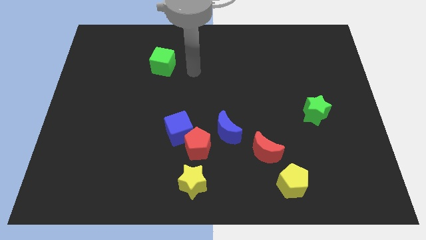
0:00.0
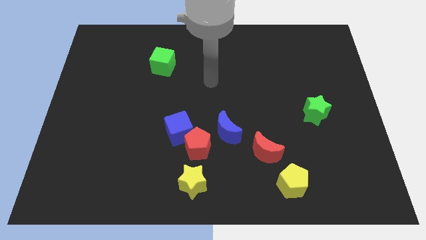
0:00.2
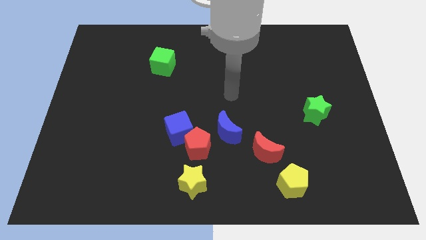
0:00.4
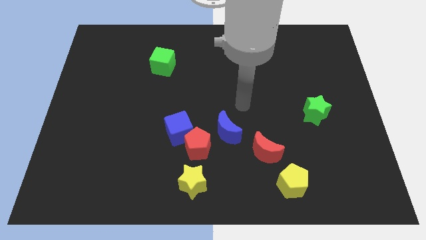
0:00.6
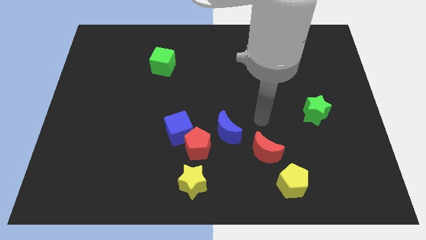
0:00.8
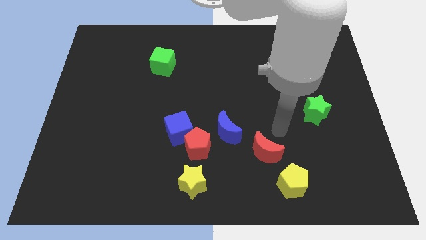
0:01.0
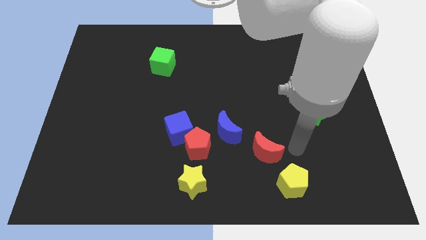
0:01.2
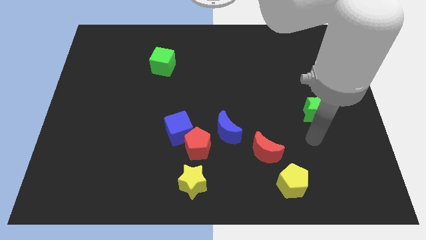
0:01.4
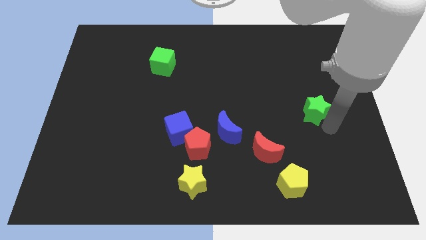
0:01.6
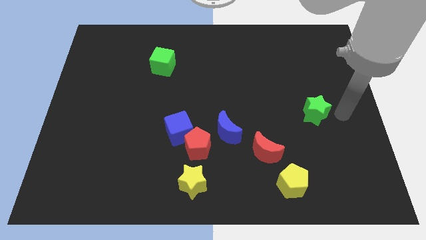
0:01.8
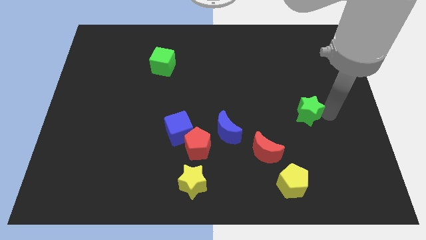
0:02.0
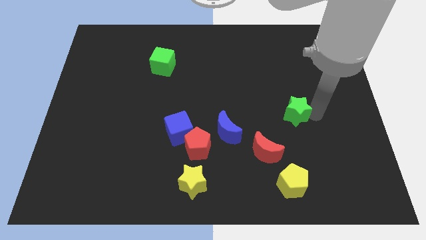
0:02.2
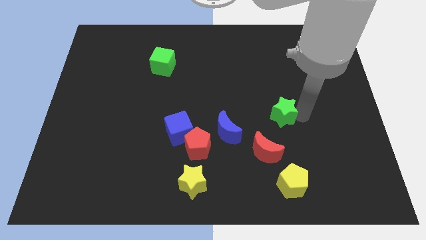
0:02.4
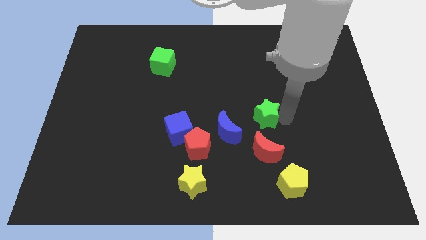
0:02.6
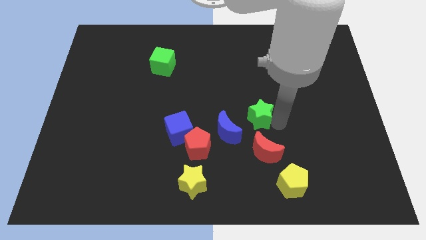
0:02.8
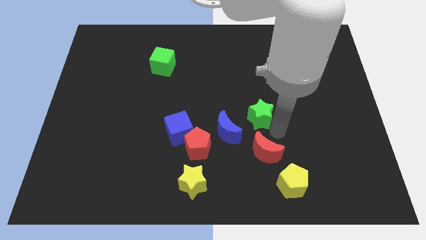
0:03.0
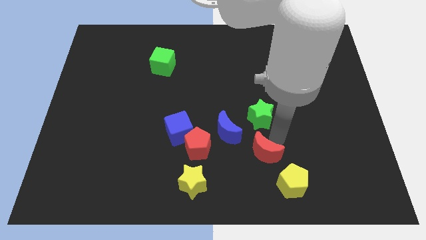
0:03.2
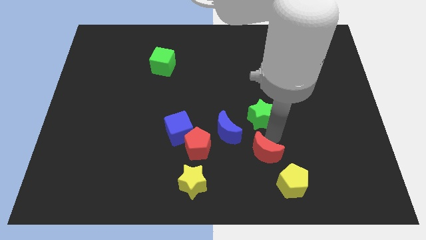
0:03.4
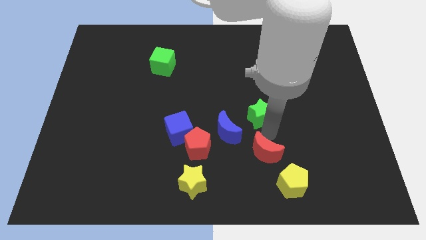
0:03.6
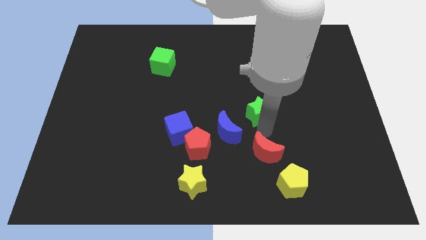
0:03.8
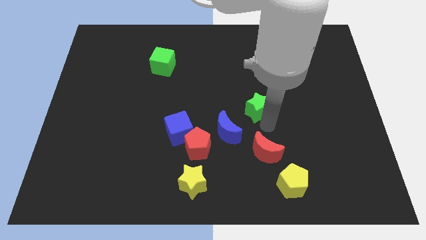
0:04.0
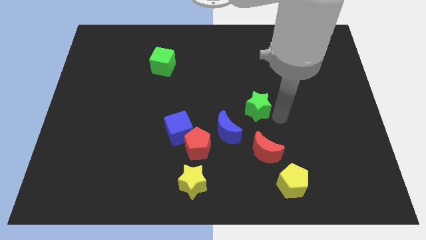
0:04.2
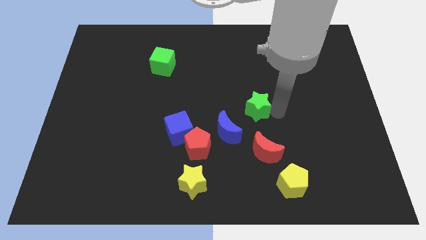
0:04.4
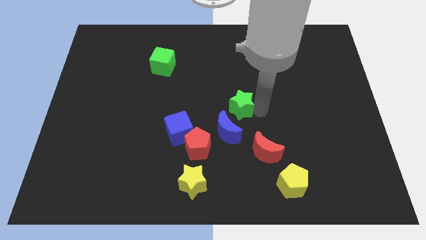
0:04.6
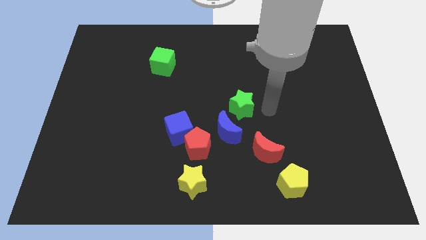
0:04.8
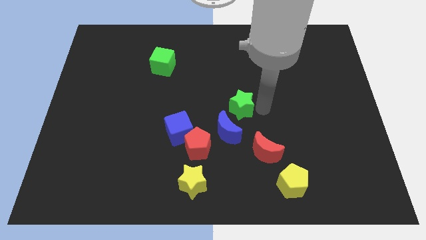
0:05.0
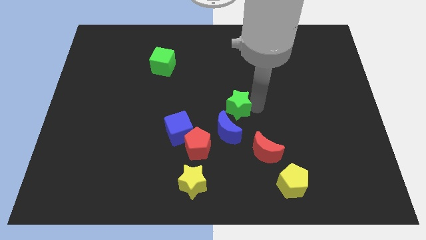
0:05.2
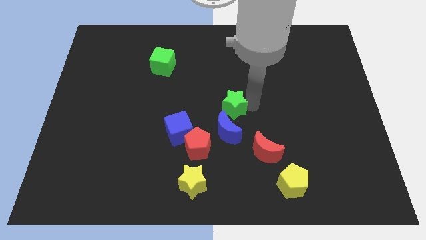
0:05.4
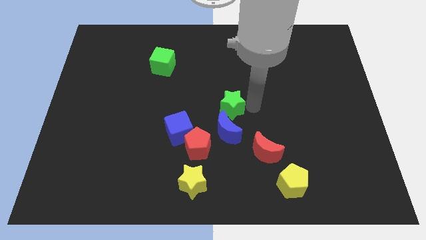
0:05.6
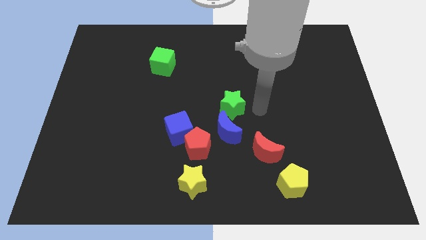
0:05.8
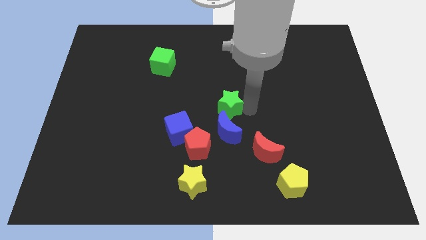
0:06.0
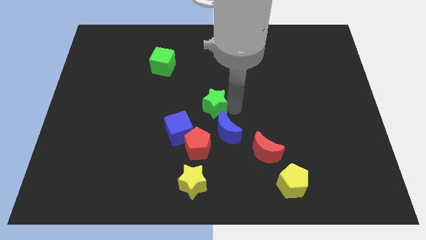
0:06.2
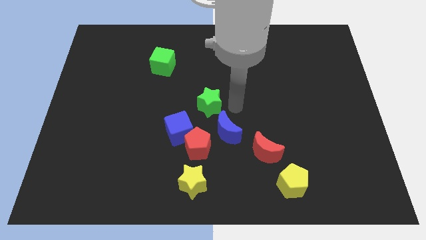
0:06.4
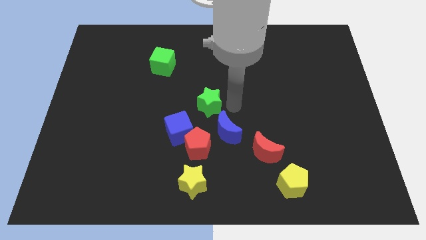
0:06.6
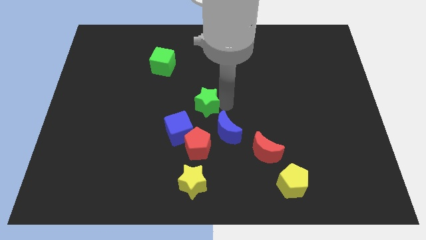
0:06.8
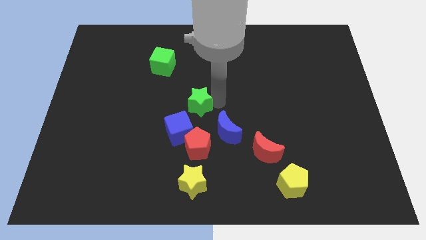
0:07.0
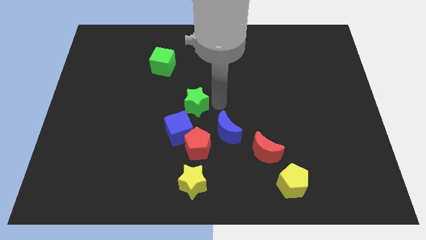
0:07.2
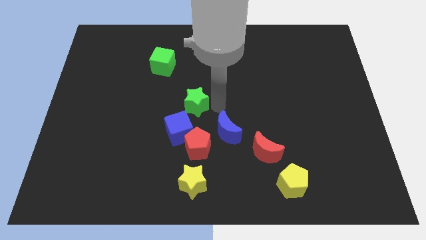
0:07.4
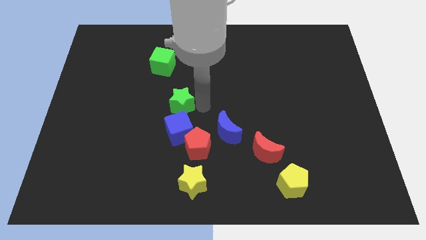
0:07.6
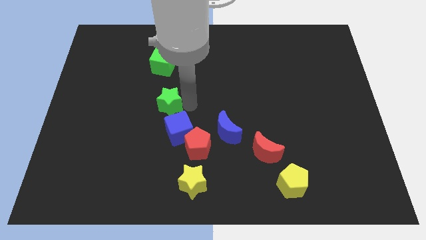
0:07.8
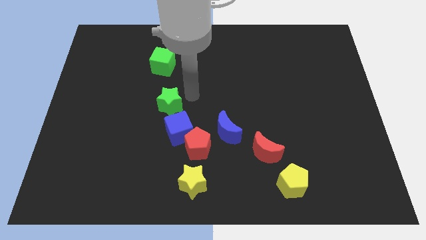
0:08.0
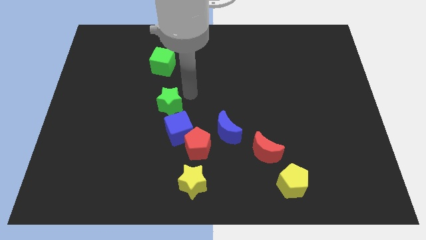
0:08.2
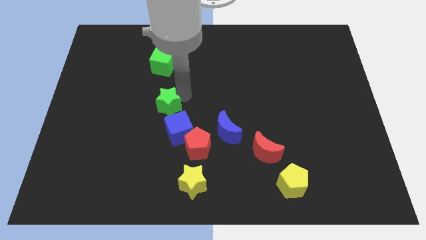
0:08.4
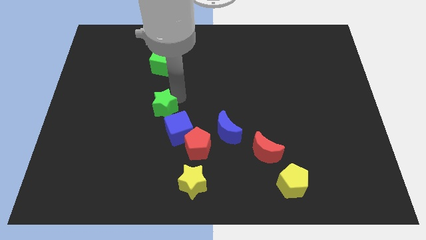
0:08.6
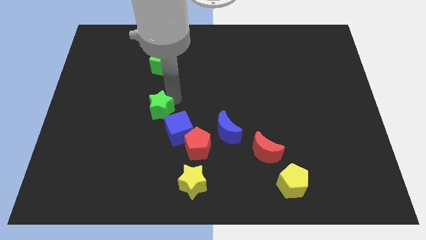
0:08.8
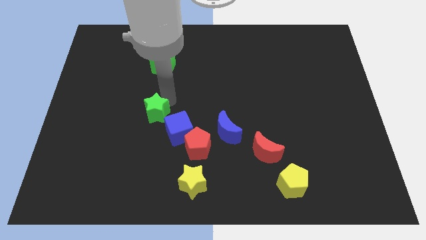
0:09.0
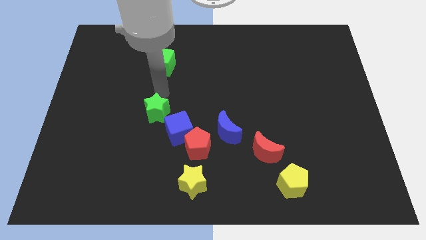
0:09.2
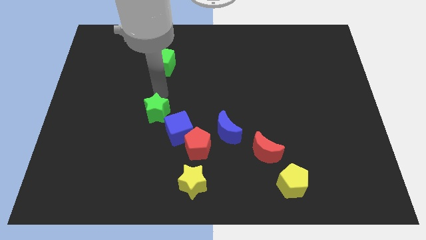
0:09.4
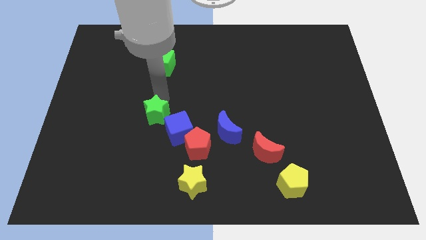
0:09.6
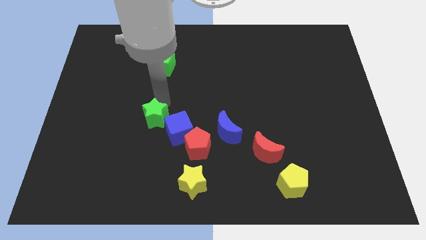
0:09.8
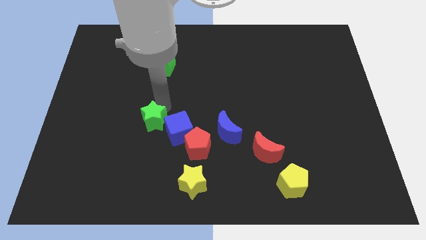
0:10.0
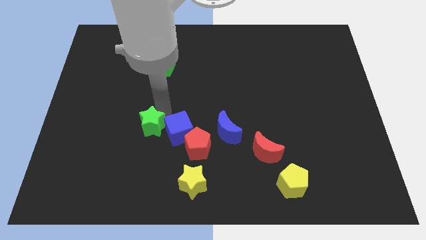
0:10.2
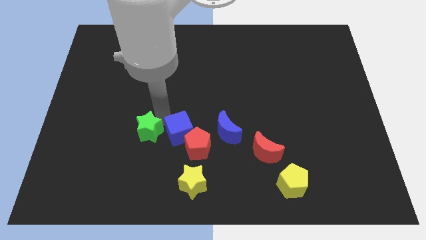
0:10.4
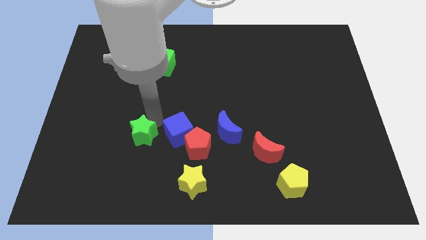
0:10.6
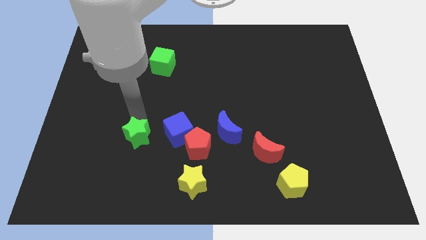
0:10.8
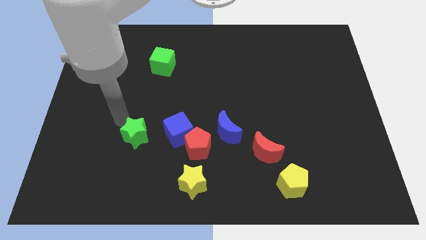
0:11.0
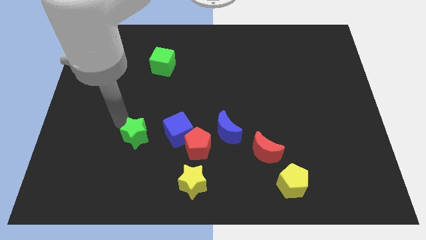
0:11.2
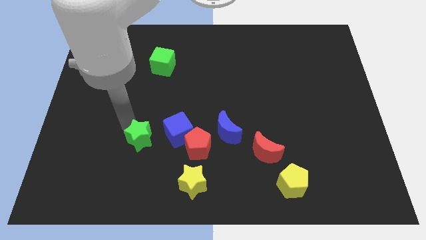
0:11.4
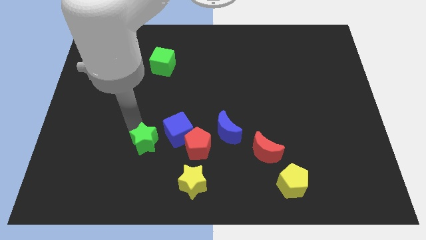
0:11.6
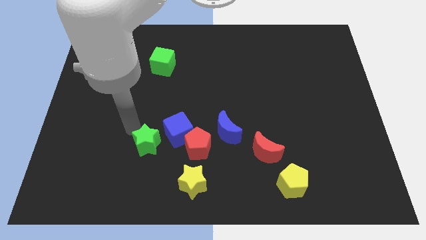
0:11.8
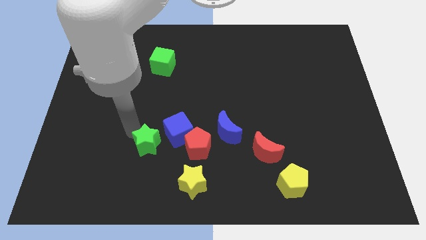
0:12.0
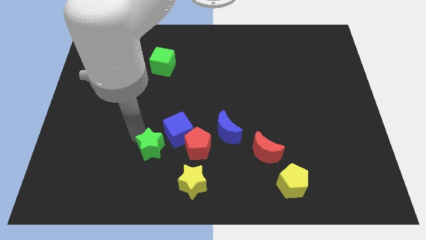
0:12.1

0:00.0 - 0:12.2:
put the green star to the top left of the yellow star

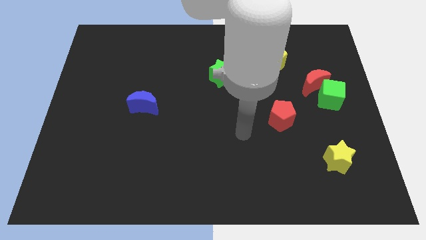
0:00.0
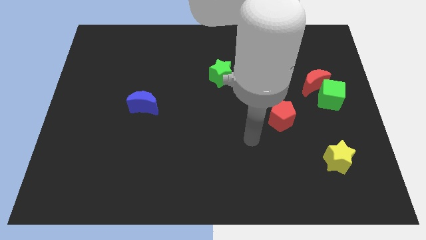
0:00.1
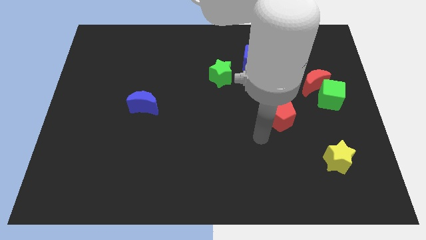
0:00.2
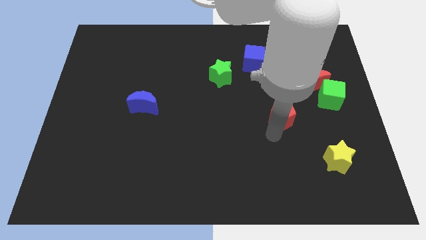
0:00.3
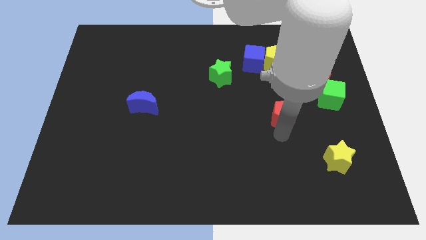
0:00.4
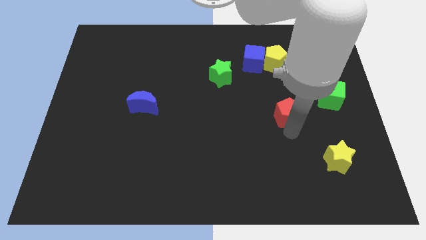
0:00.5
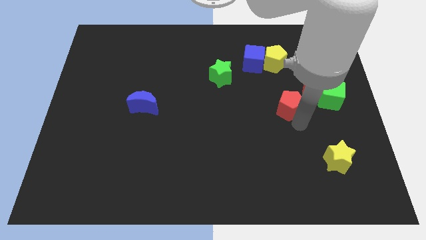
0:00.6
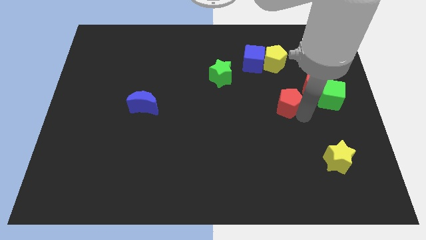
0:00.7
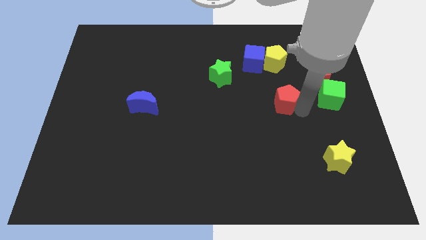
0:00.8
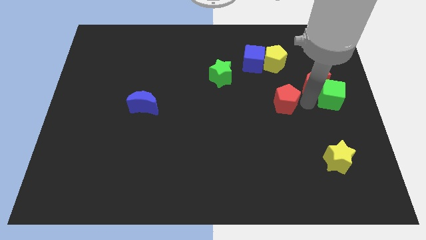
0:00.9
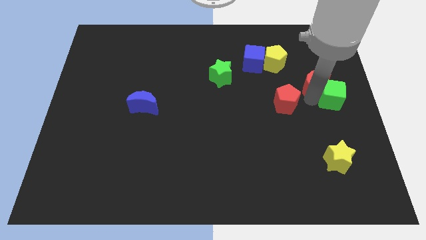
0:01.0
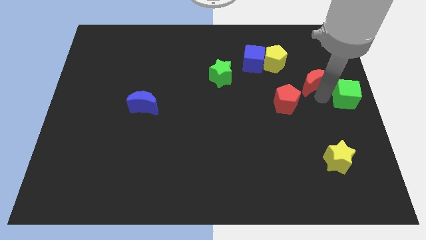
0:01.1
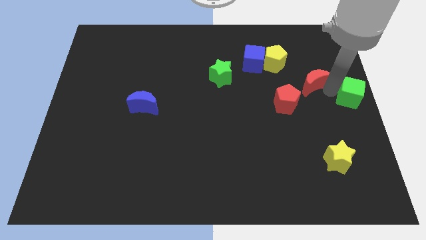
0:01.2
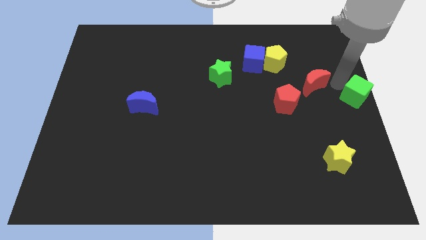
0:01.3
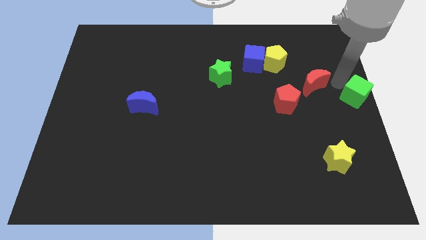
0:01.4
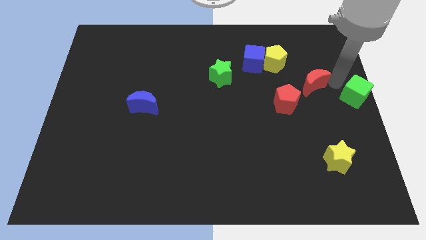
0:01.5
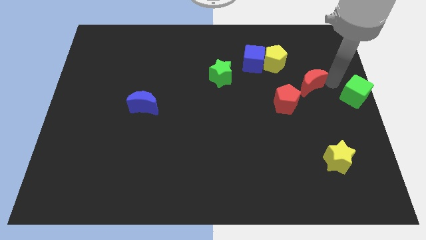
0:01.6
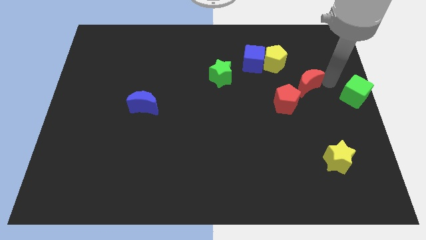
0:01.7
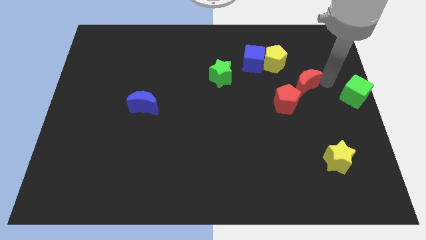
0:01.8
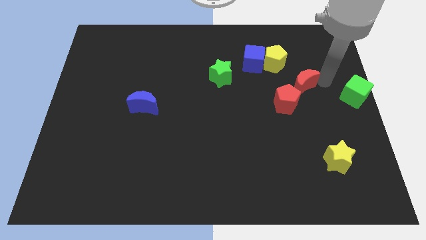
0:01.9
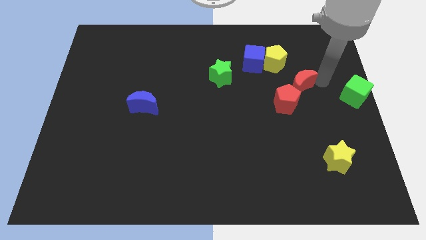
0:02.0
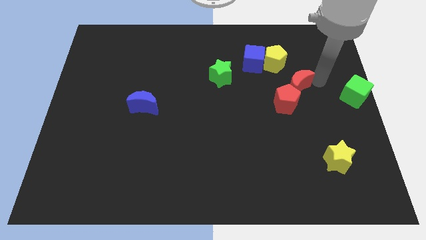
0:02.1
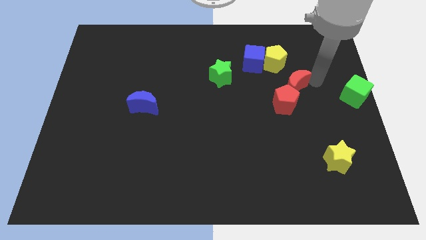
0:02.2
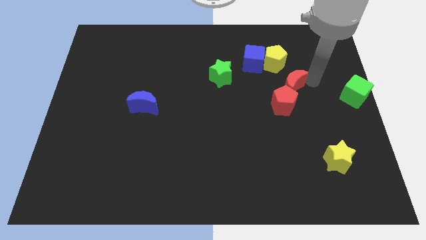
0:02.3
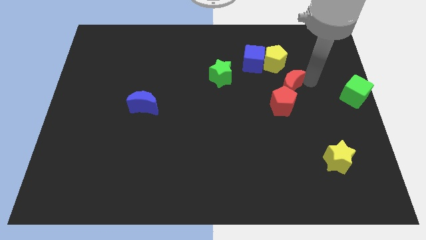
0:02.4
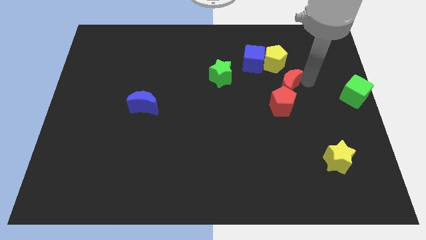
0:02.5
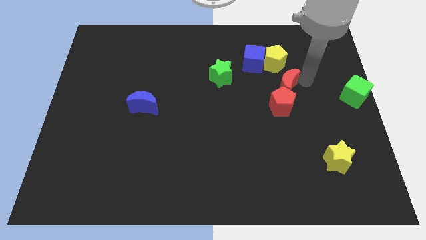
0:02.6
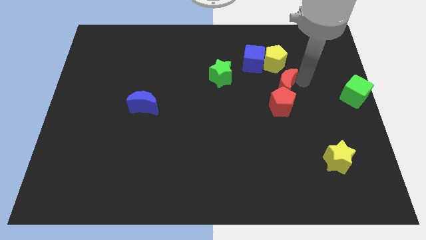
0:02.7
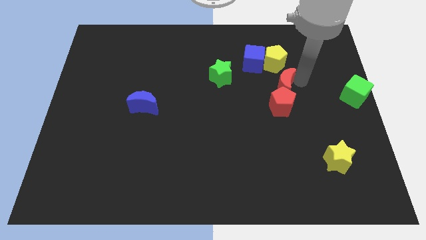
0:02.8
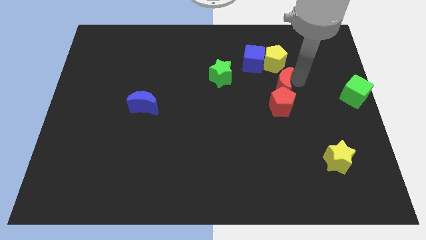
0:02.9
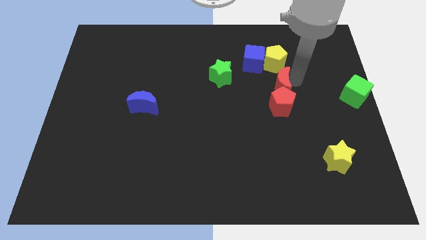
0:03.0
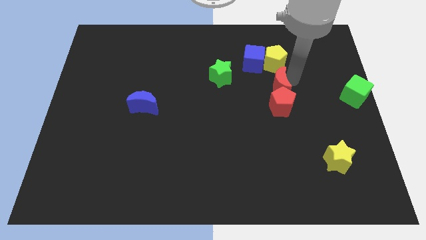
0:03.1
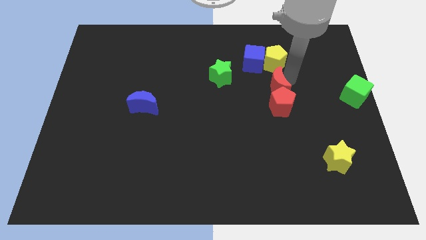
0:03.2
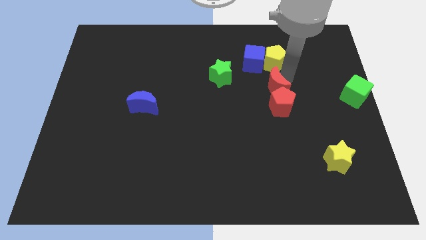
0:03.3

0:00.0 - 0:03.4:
slide the red moon to the bottom of the blue cube
